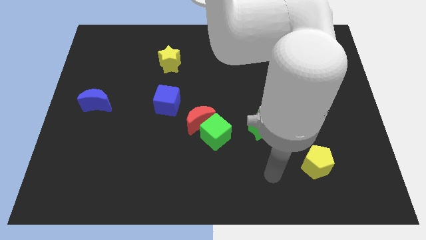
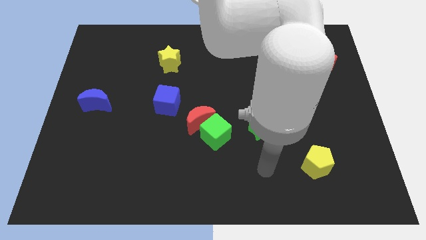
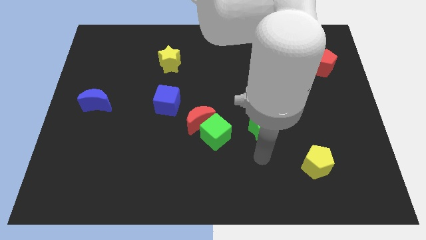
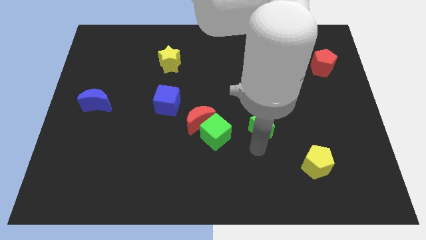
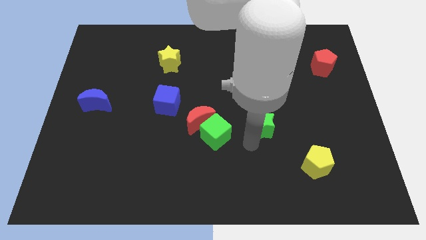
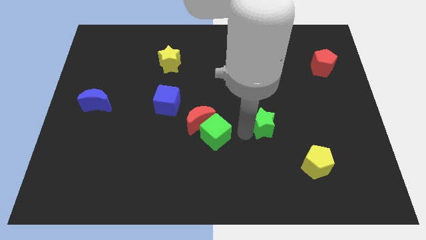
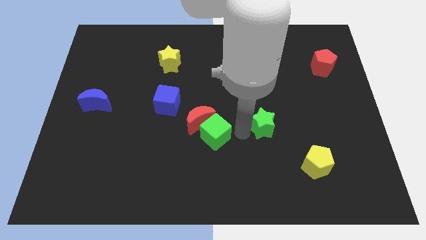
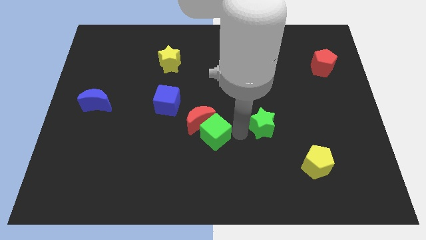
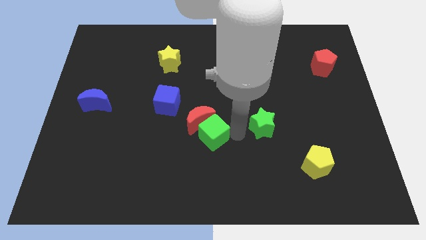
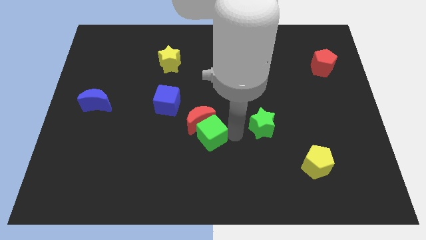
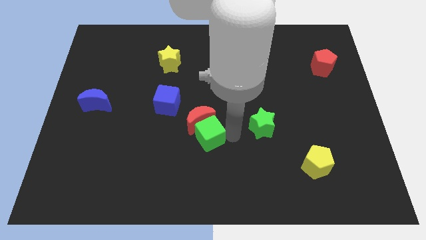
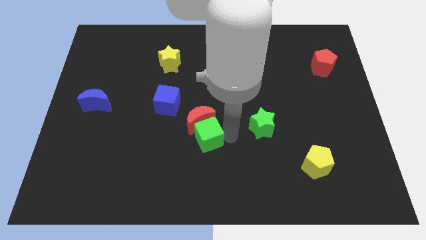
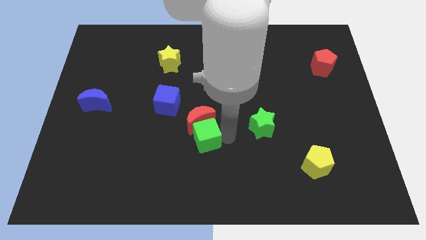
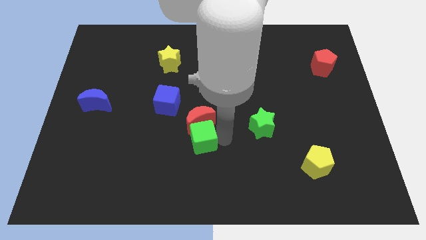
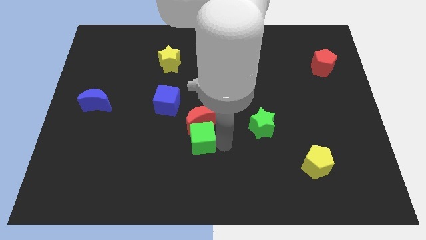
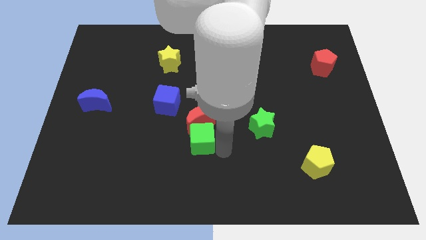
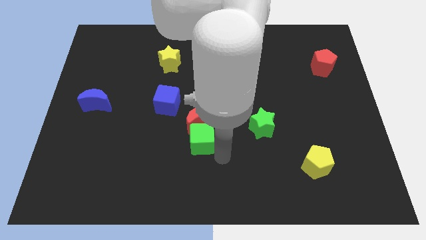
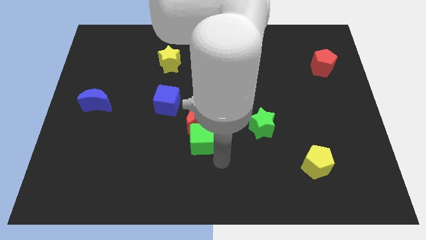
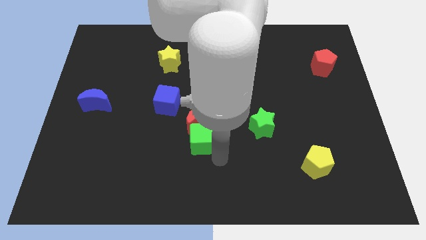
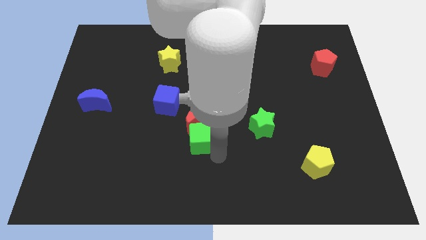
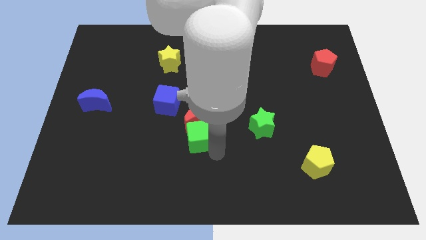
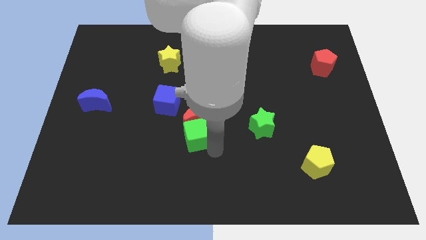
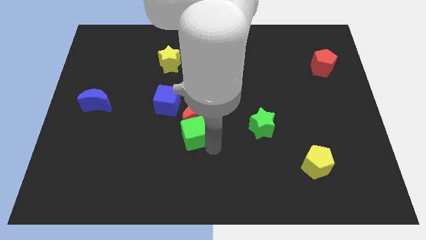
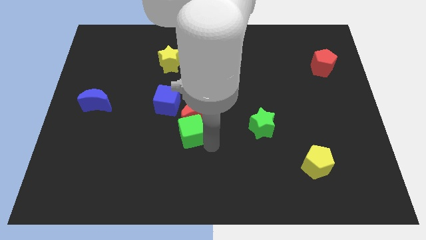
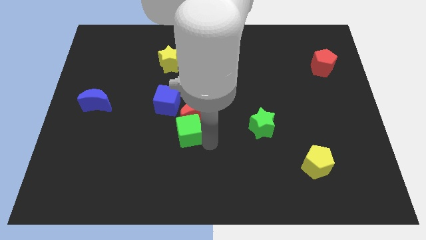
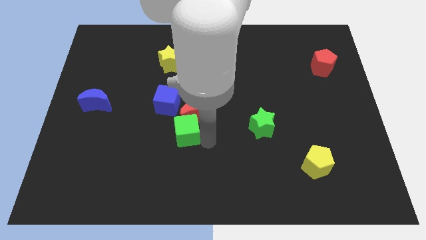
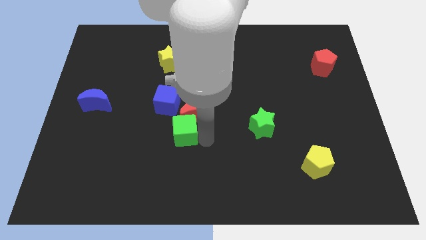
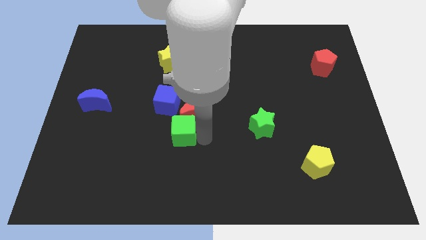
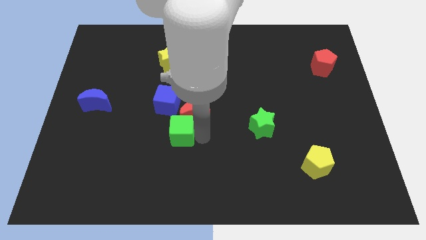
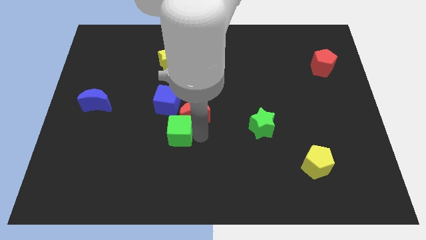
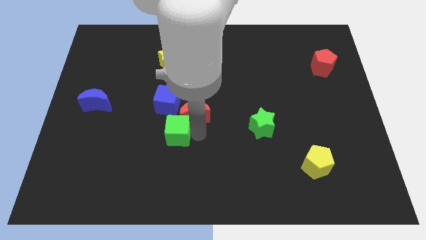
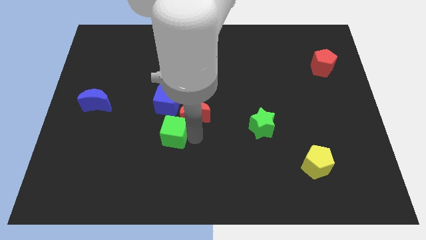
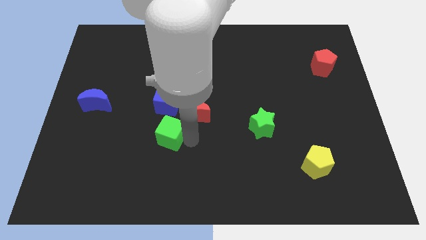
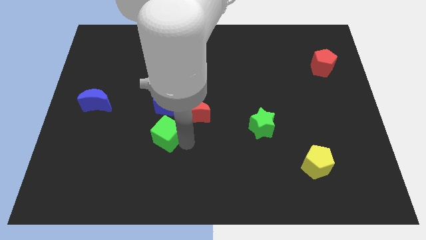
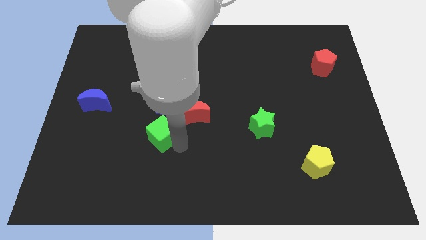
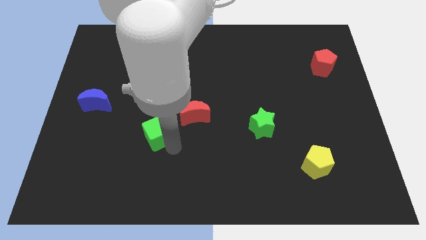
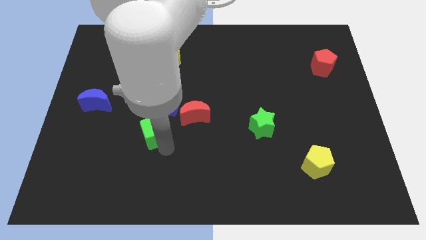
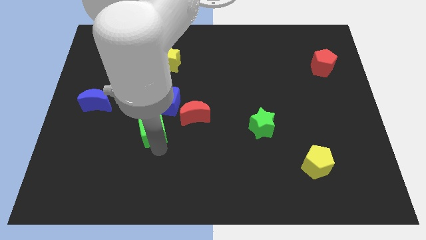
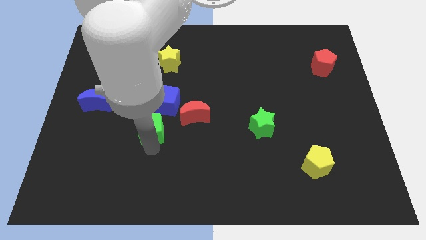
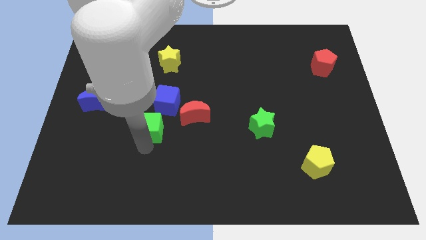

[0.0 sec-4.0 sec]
slide the green cube up and then left slightly

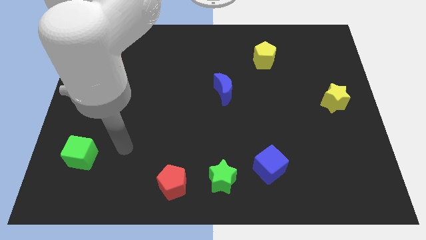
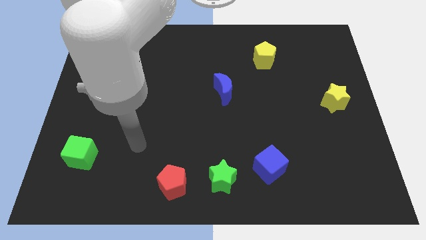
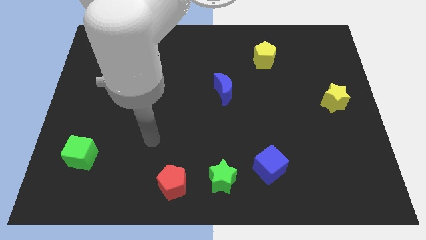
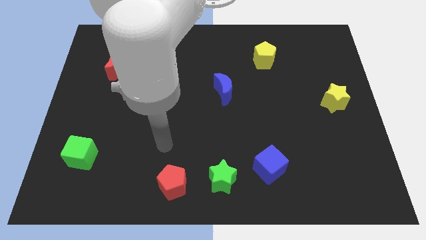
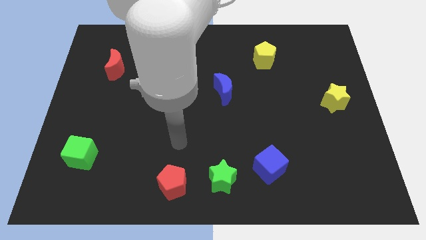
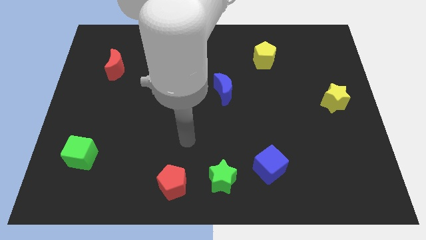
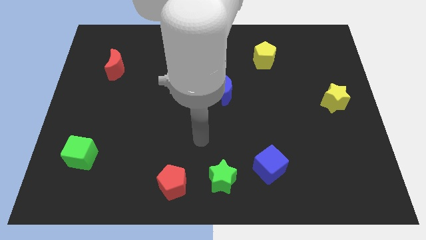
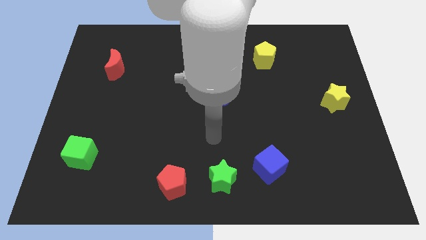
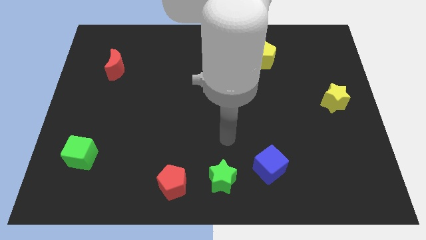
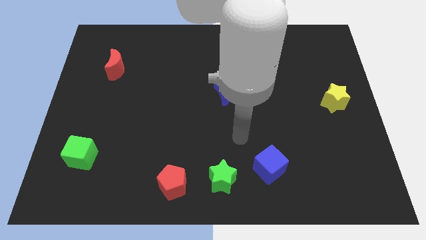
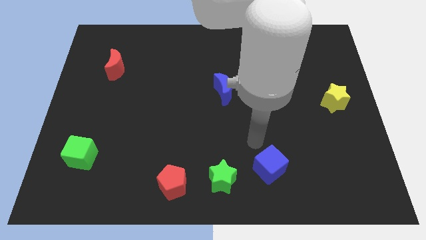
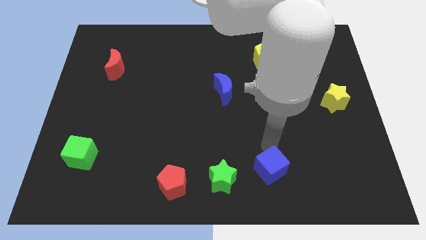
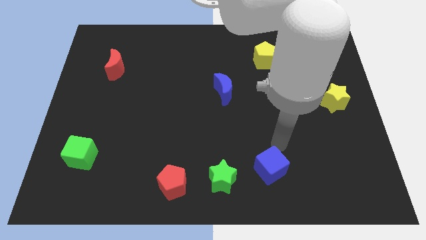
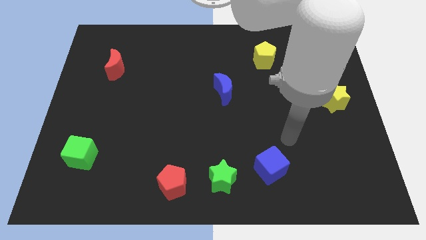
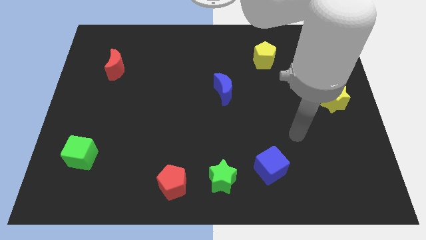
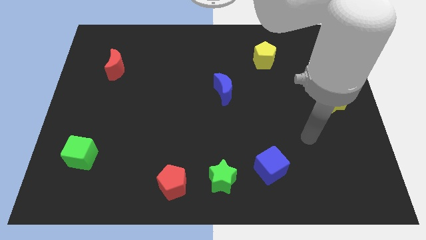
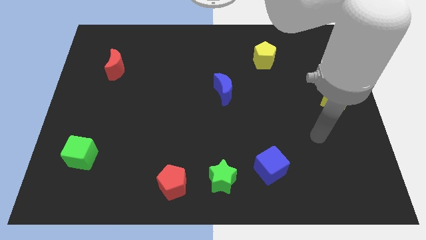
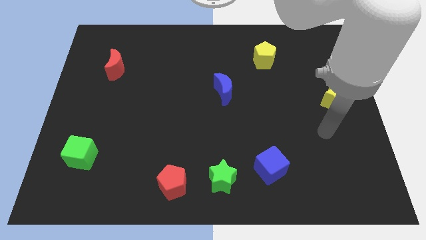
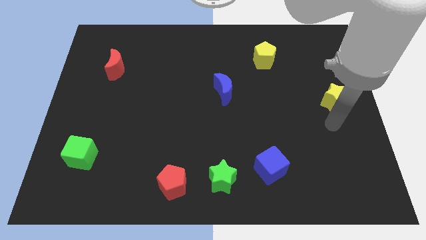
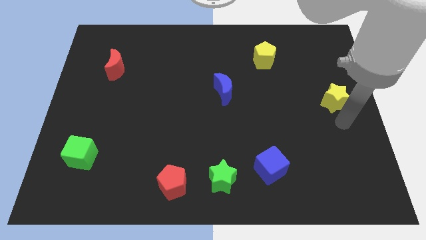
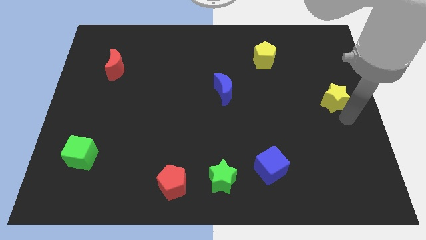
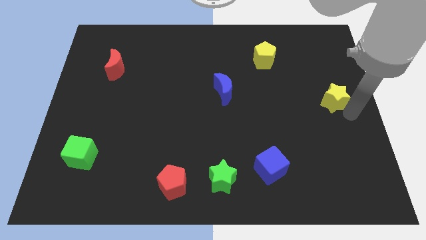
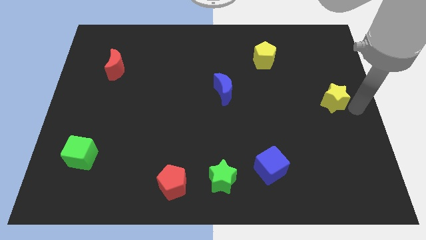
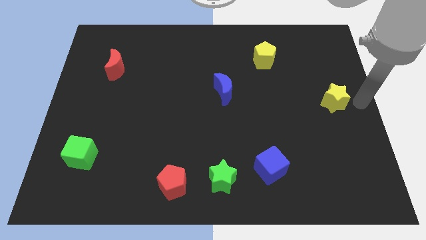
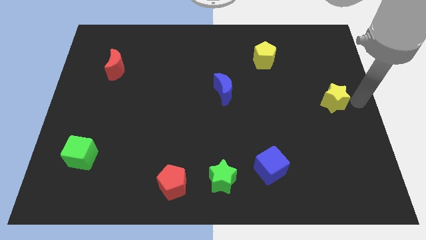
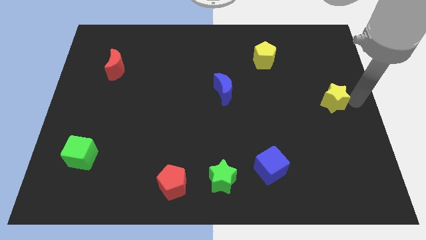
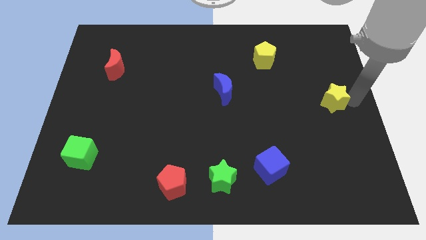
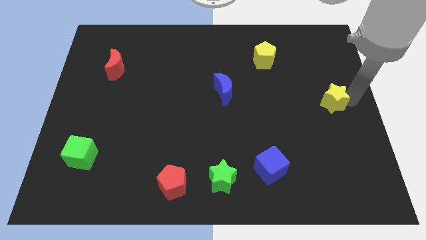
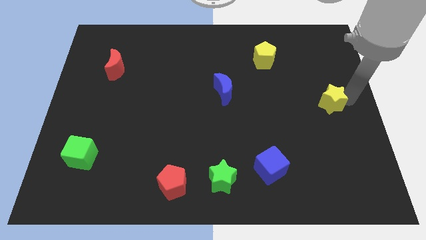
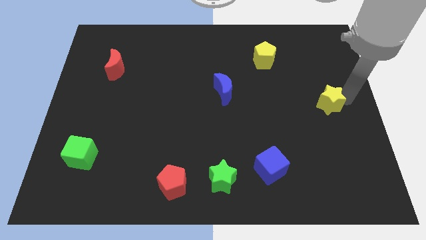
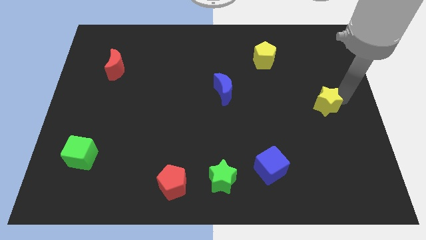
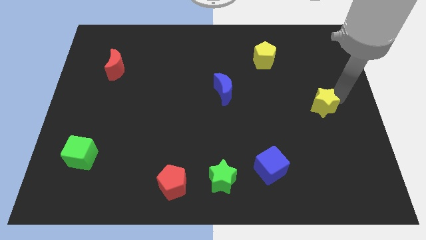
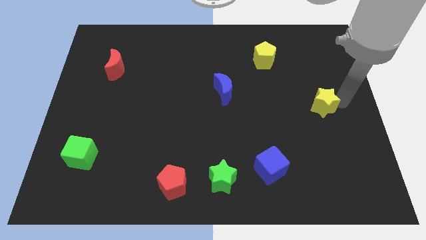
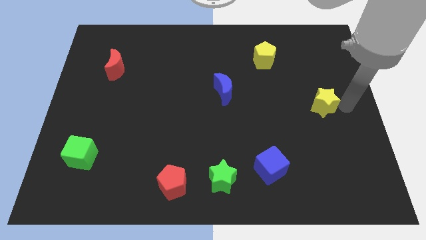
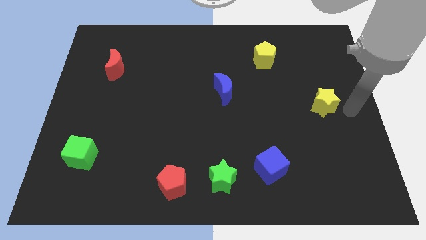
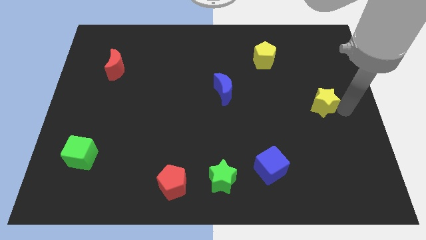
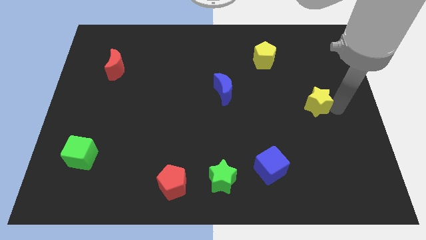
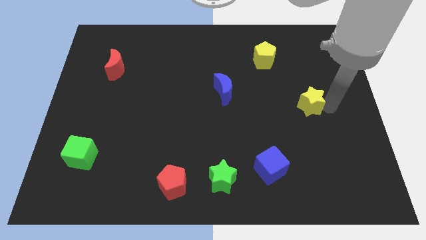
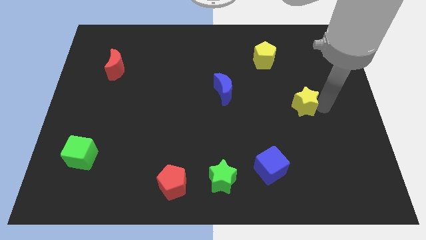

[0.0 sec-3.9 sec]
move the yellow star left a little
